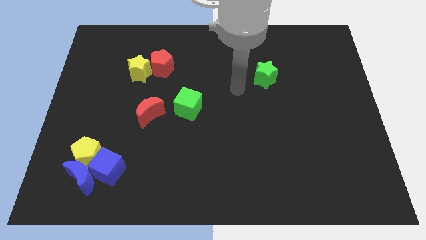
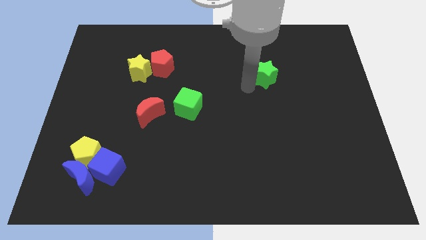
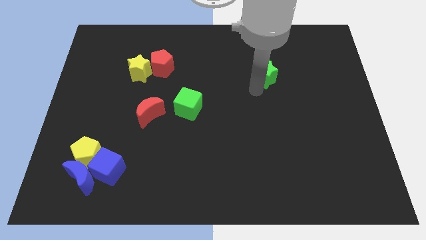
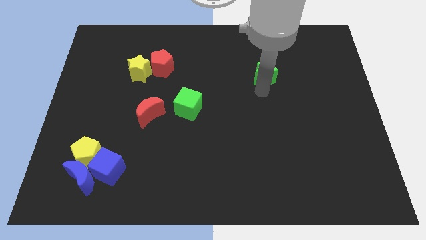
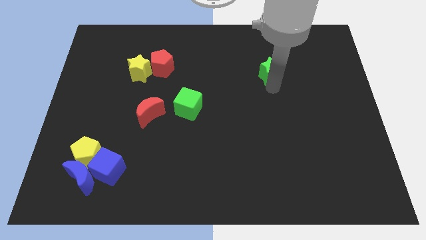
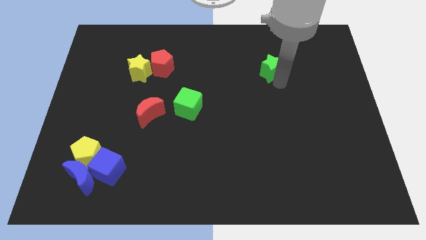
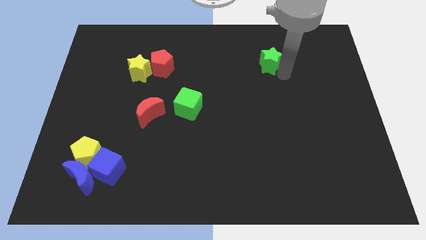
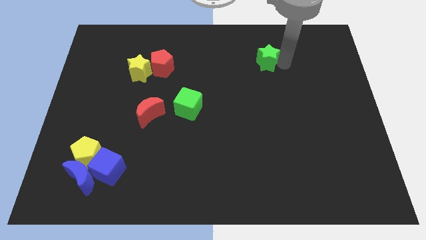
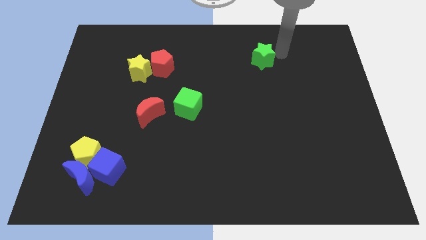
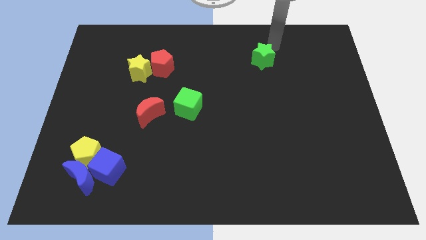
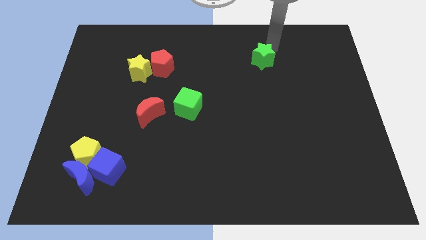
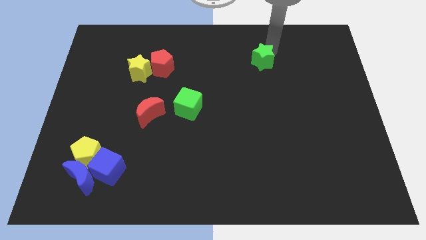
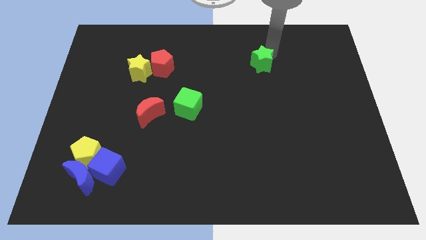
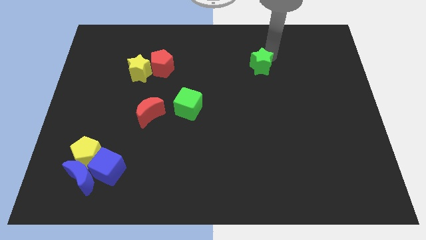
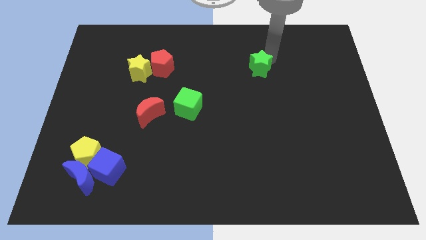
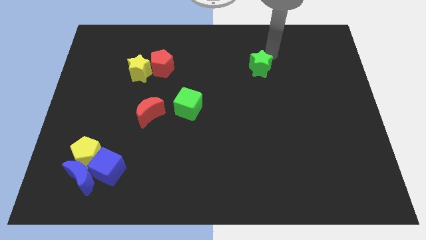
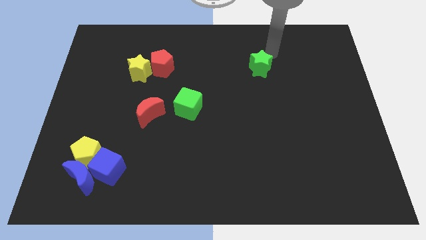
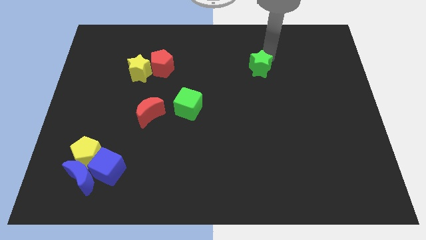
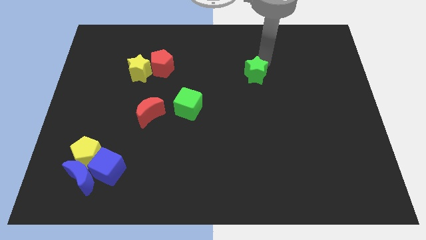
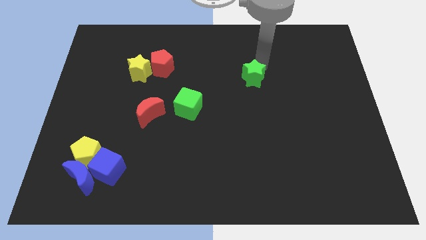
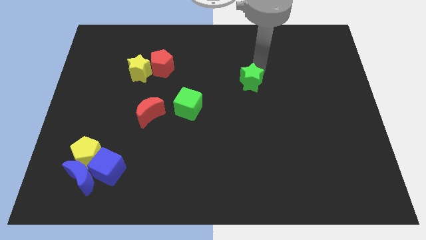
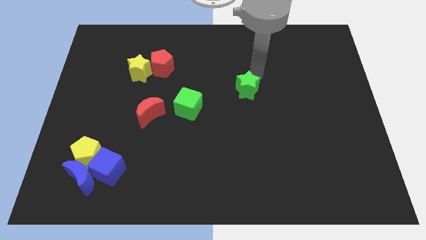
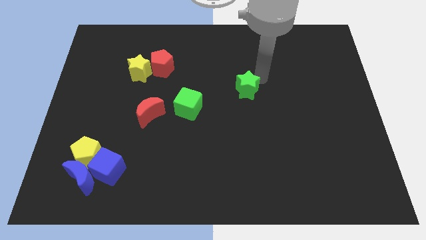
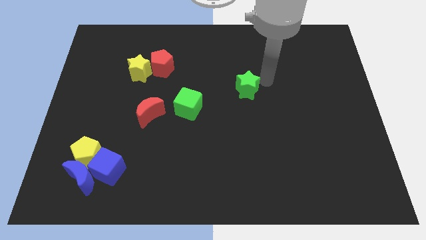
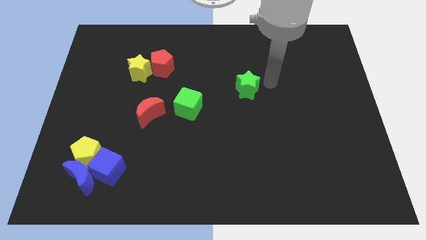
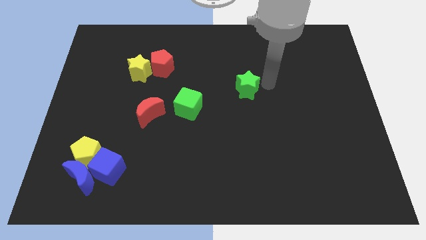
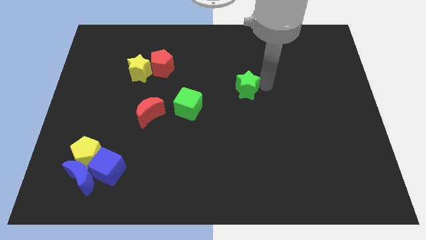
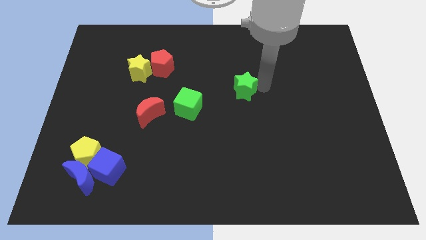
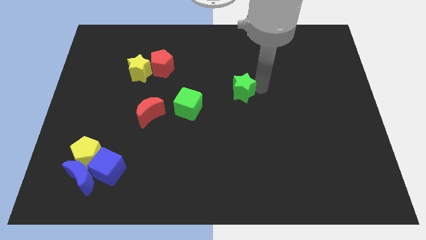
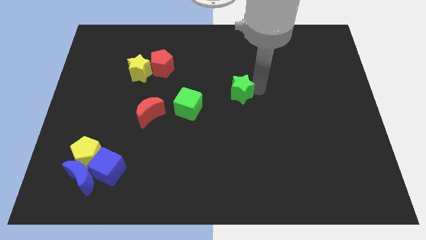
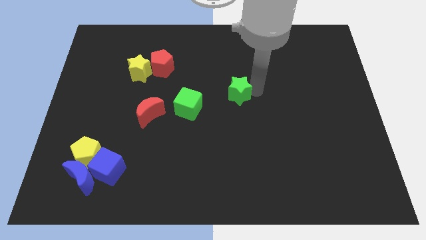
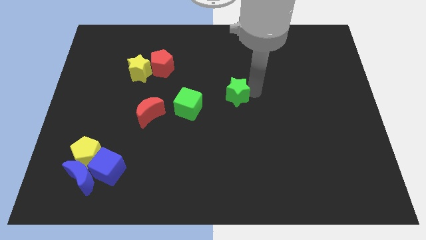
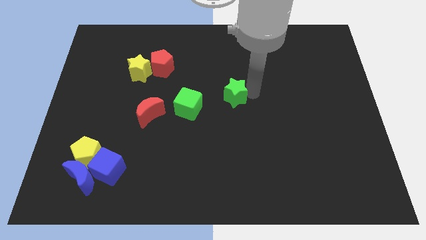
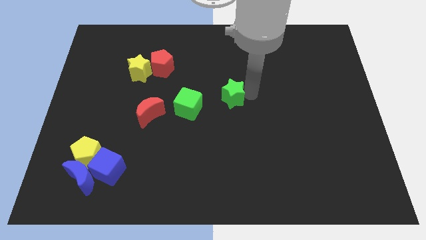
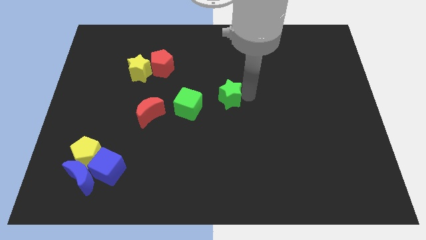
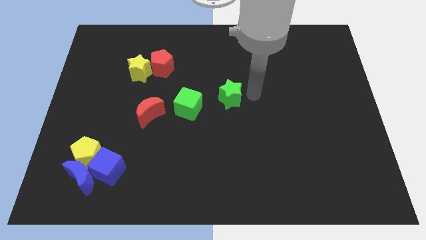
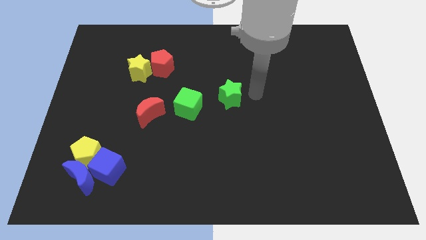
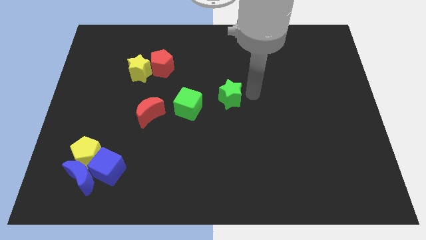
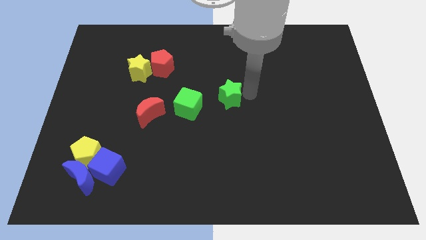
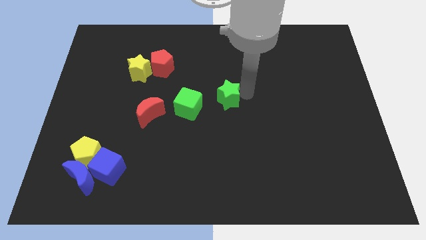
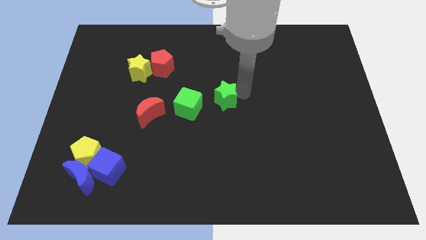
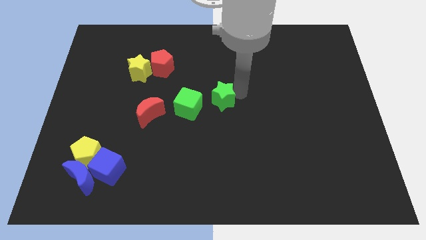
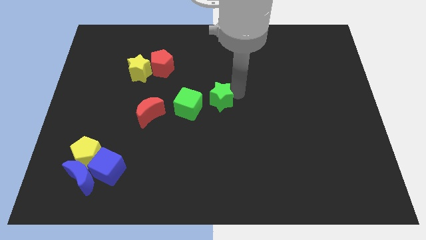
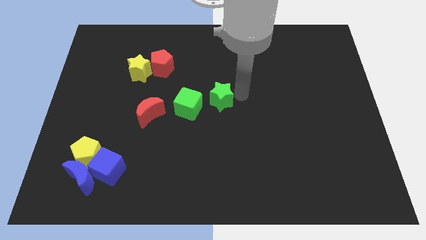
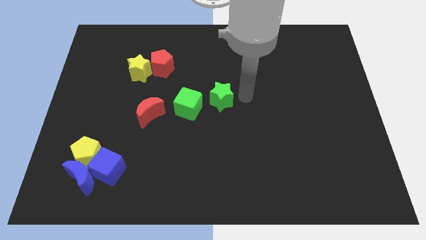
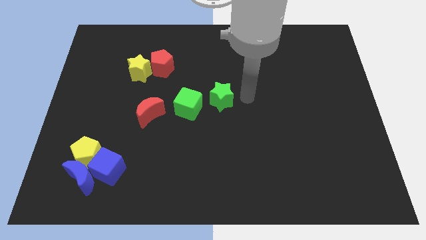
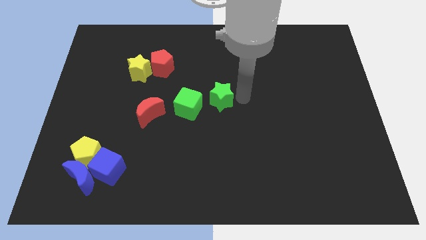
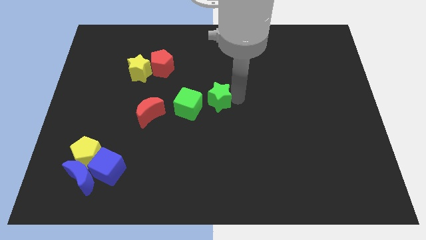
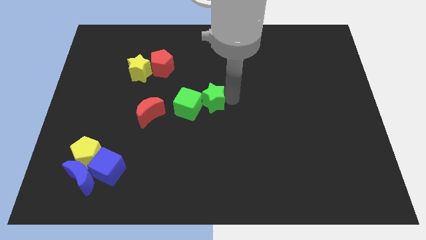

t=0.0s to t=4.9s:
move the green star towards the green cube

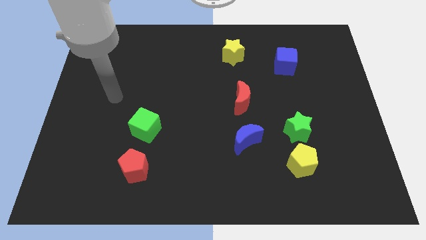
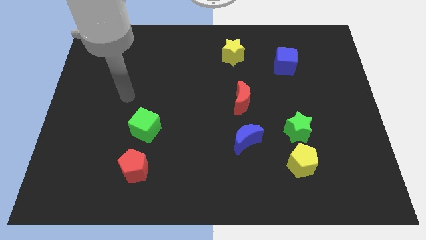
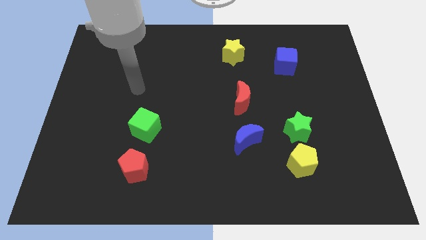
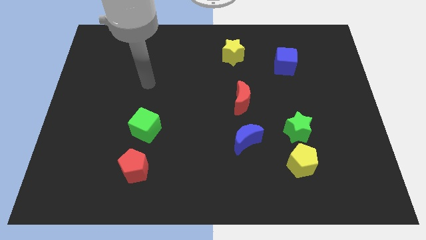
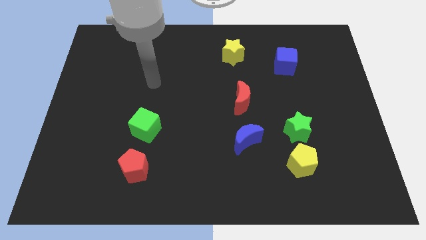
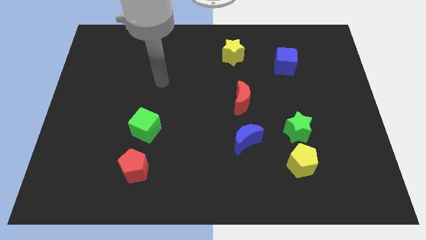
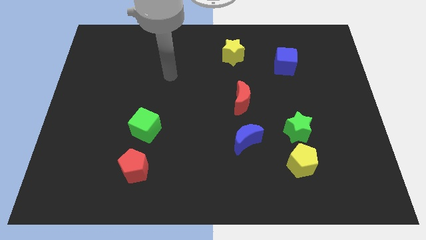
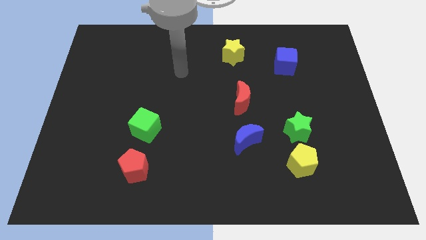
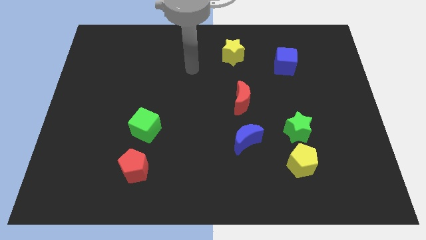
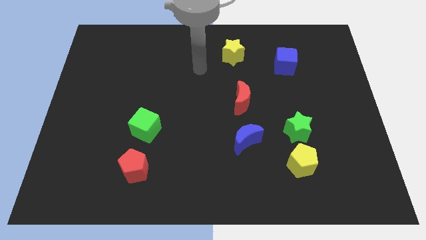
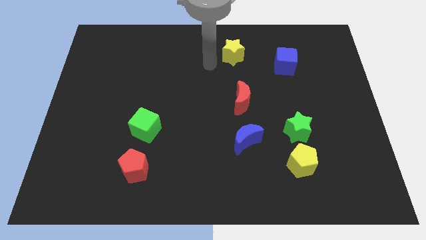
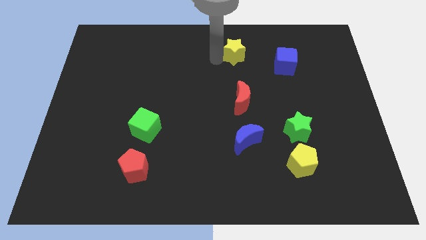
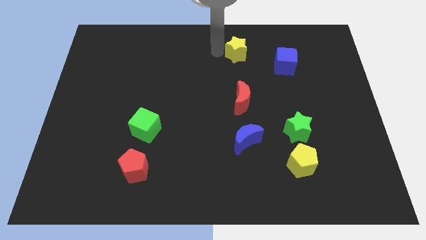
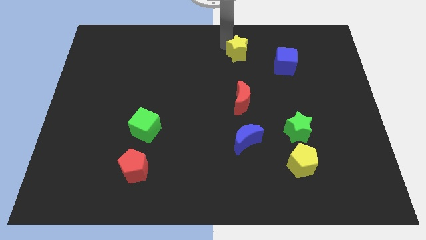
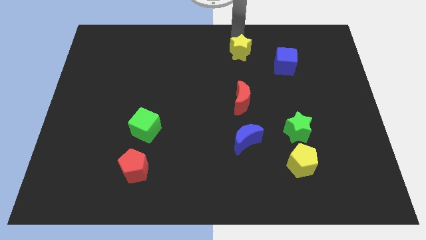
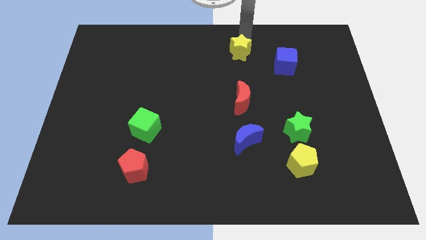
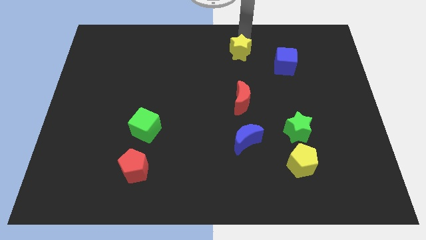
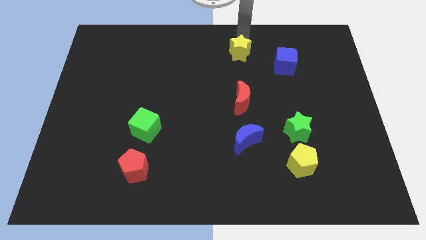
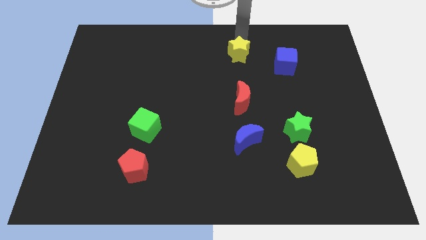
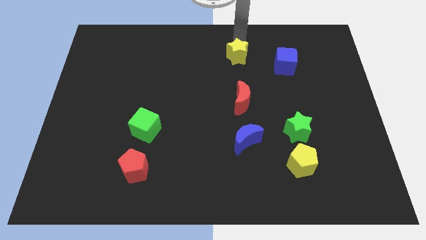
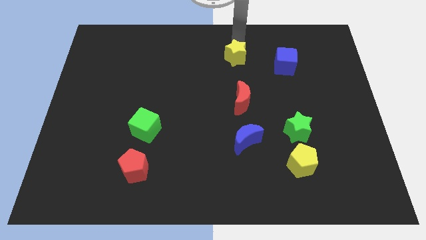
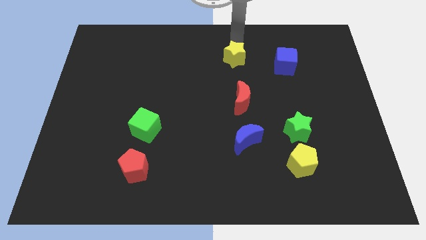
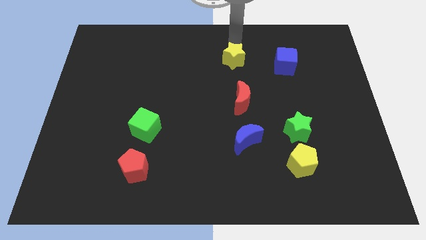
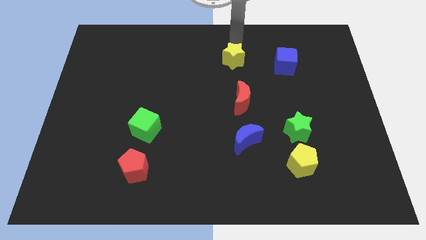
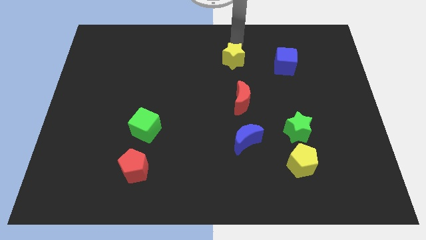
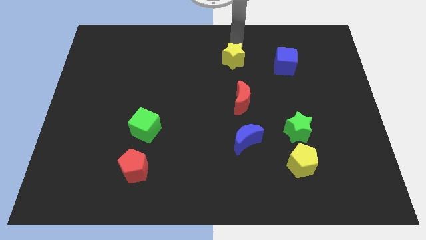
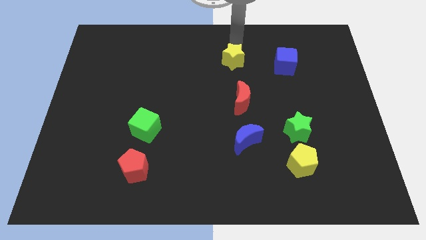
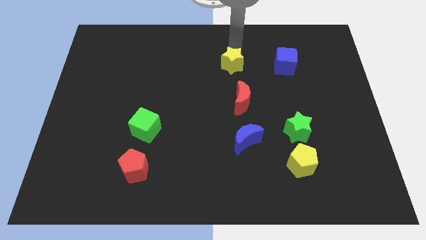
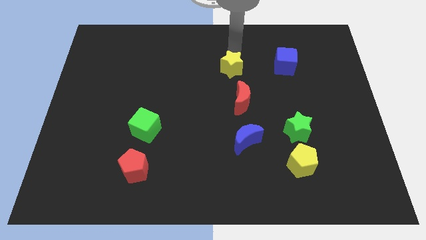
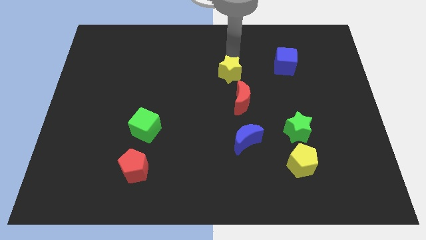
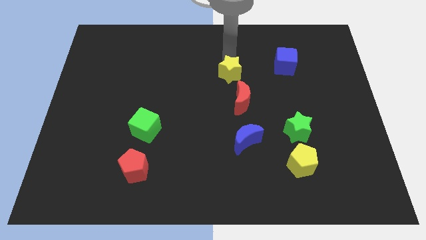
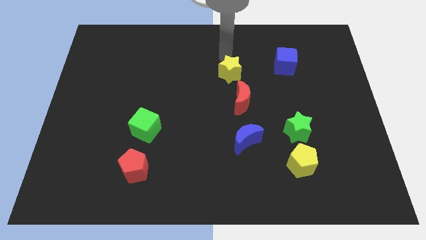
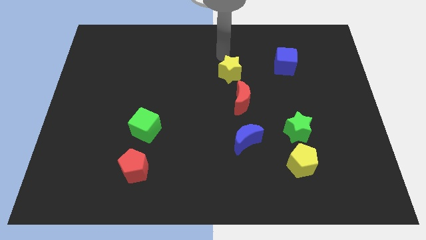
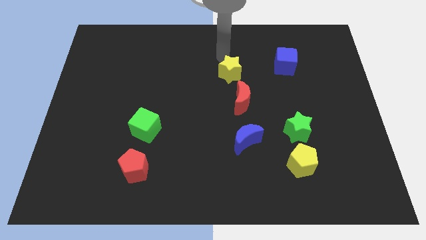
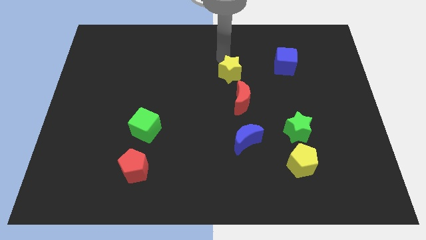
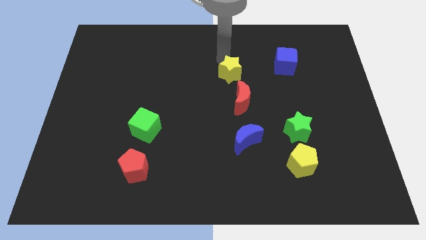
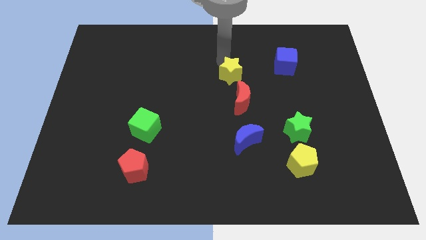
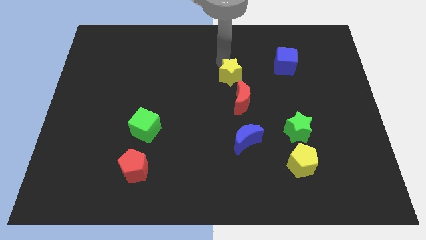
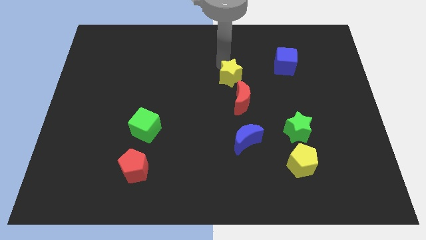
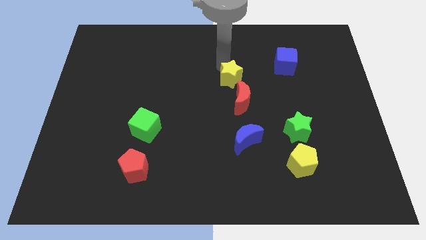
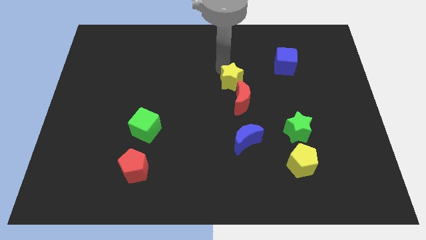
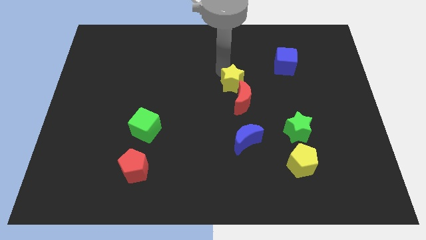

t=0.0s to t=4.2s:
push the yellow star close to the red moon
